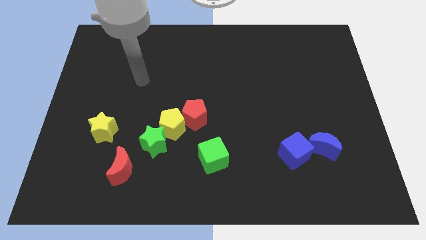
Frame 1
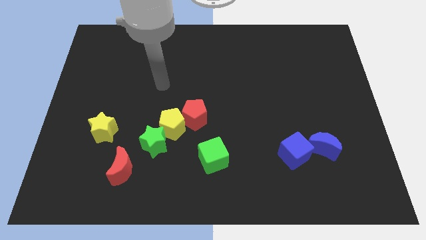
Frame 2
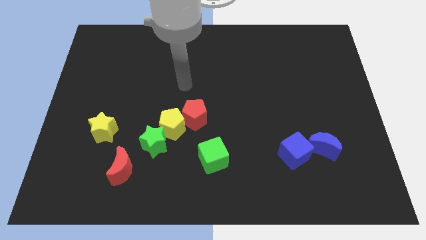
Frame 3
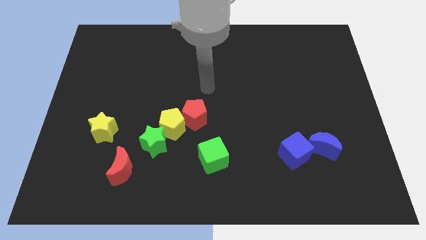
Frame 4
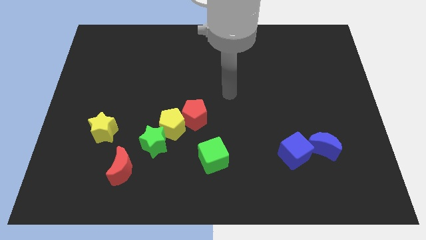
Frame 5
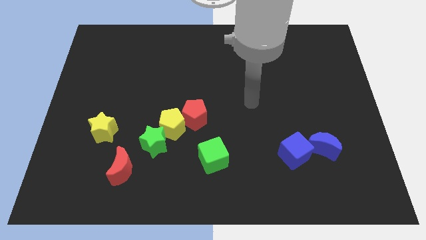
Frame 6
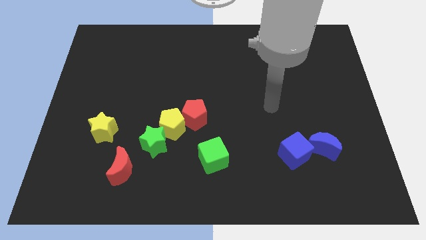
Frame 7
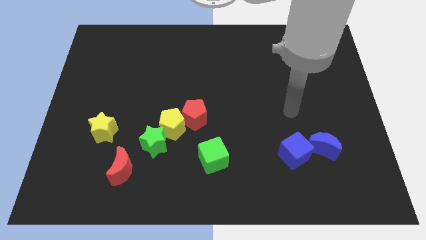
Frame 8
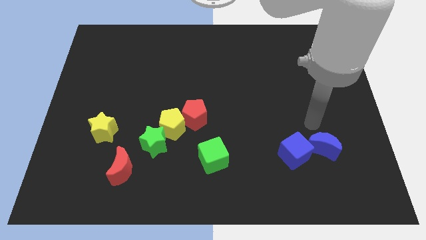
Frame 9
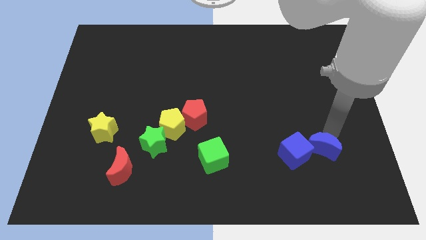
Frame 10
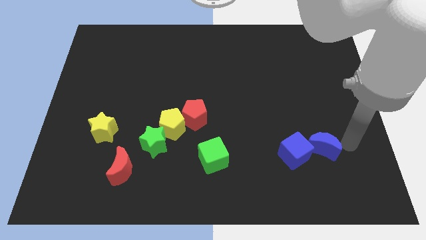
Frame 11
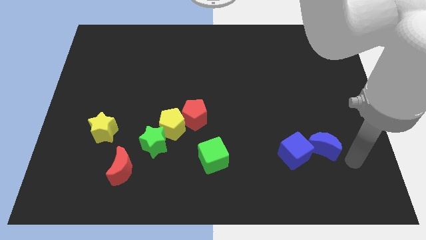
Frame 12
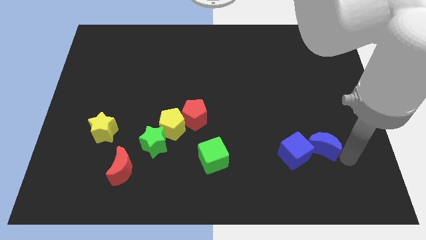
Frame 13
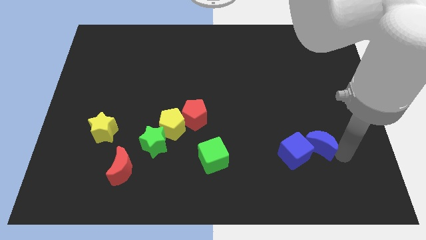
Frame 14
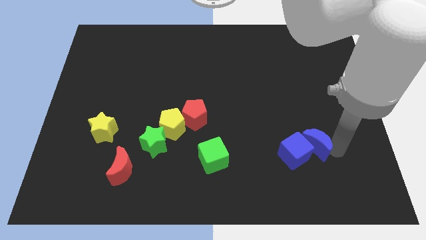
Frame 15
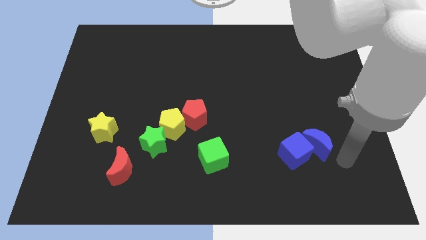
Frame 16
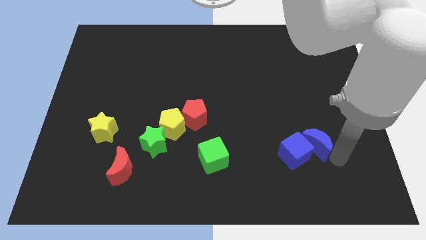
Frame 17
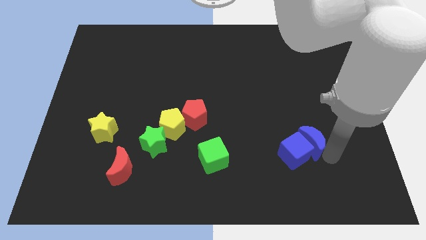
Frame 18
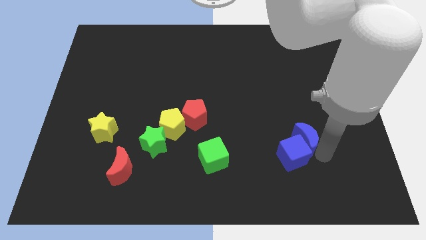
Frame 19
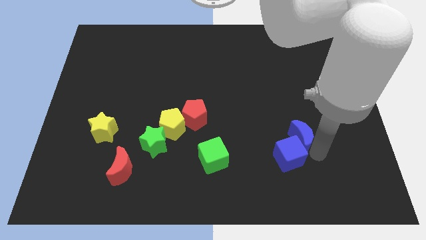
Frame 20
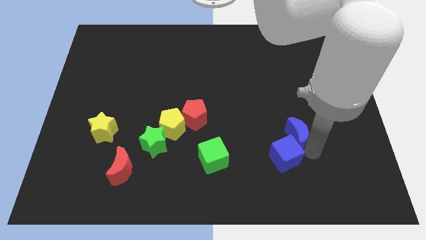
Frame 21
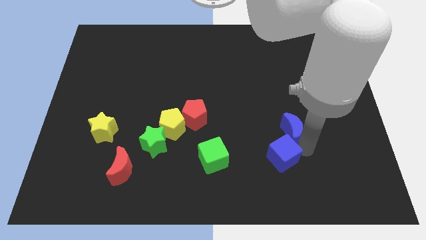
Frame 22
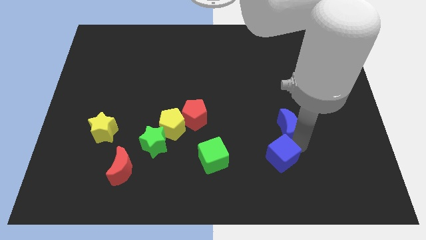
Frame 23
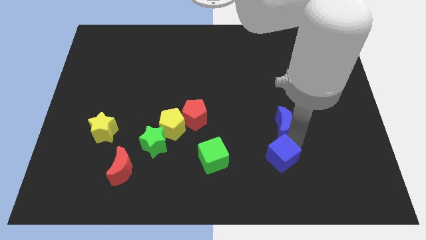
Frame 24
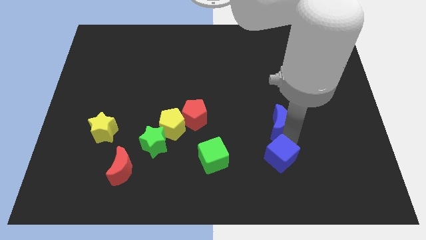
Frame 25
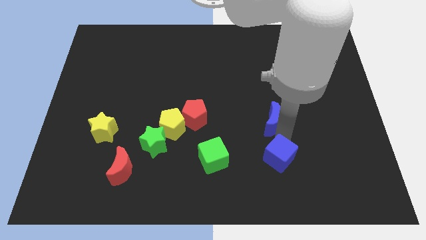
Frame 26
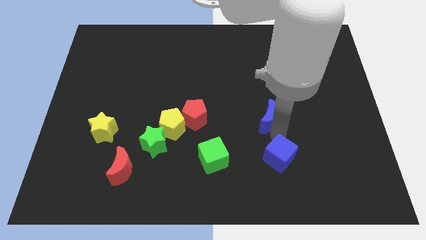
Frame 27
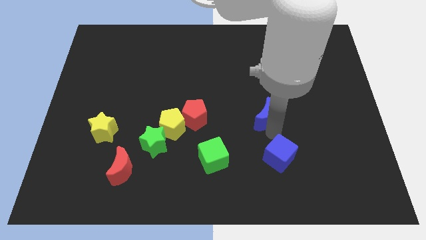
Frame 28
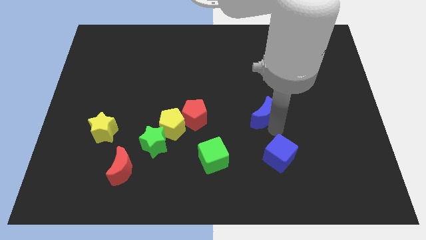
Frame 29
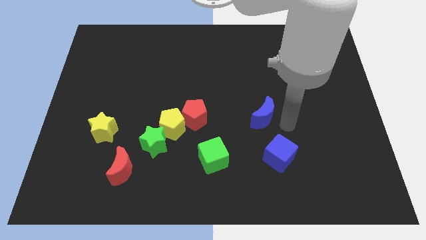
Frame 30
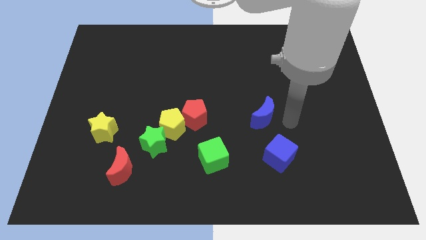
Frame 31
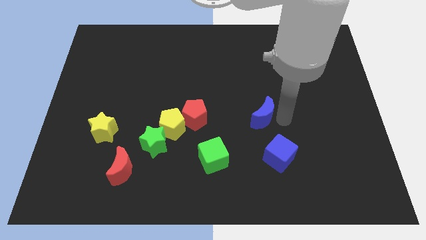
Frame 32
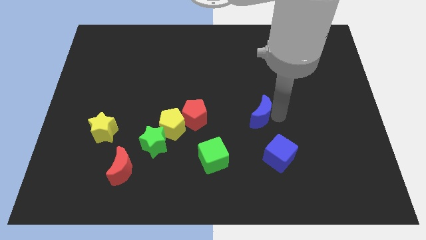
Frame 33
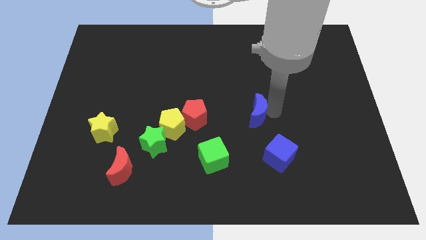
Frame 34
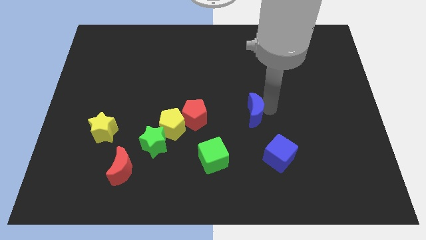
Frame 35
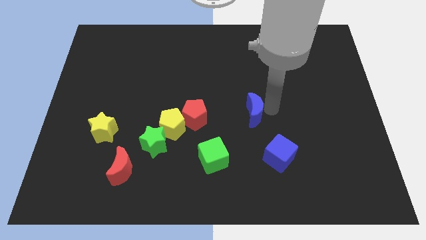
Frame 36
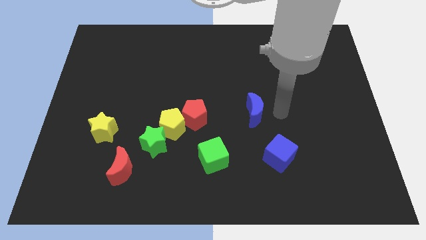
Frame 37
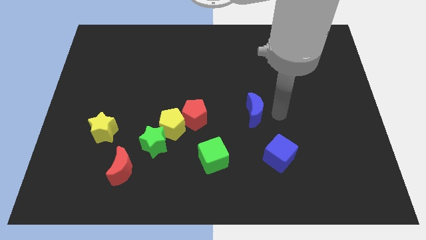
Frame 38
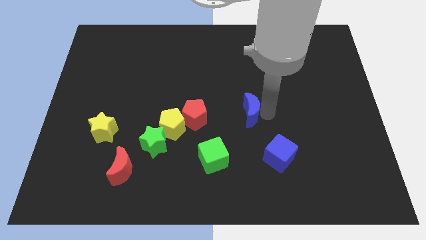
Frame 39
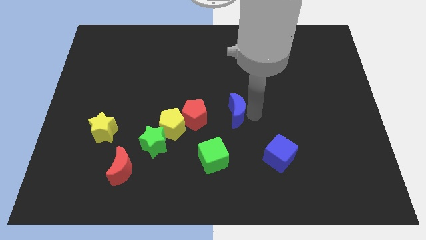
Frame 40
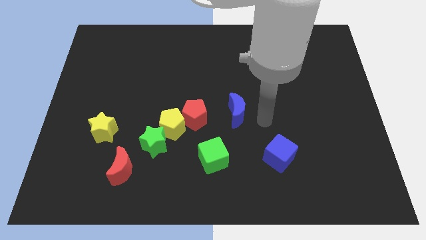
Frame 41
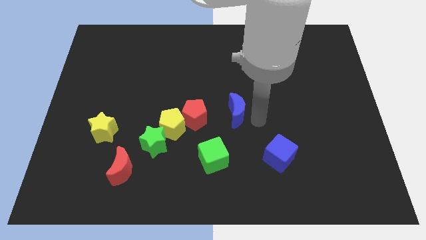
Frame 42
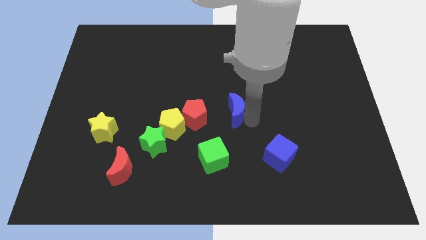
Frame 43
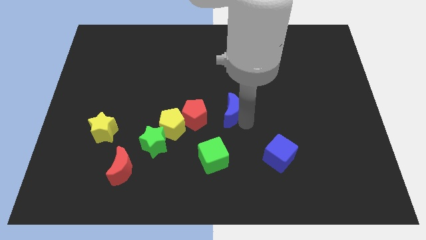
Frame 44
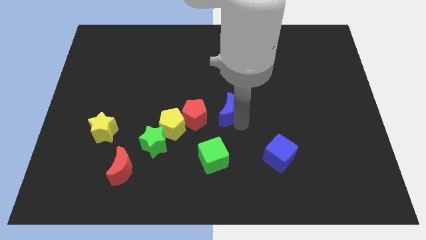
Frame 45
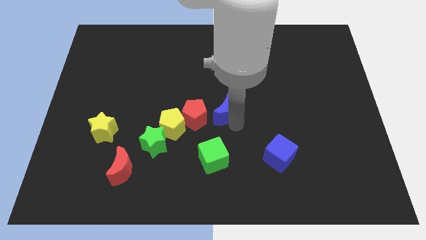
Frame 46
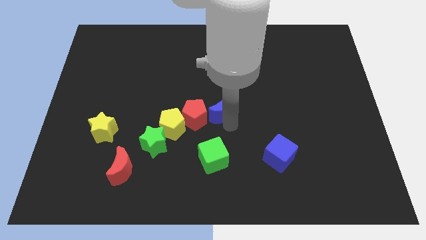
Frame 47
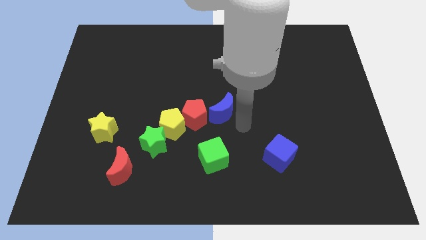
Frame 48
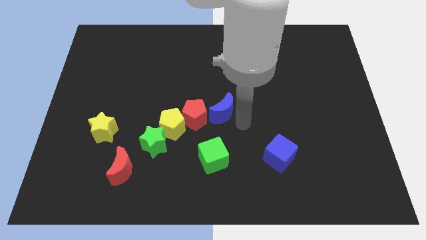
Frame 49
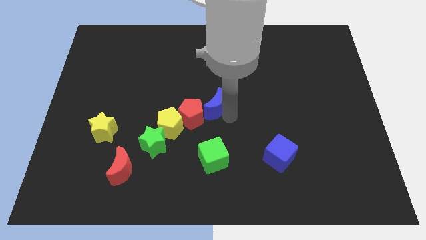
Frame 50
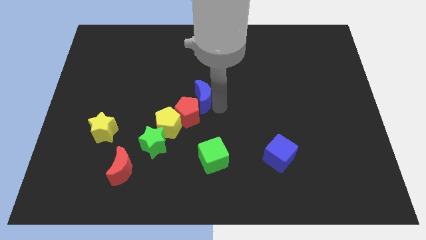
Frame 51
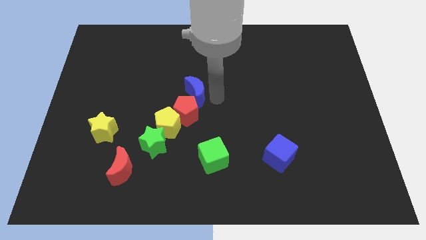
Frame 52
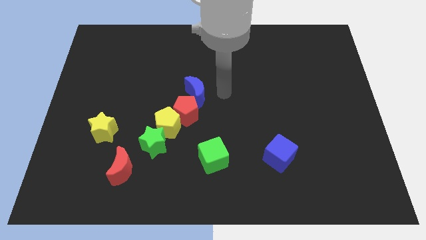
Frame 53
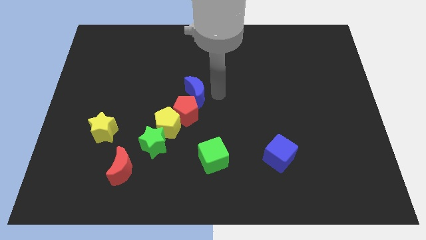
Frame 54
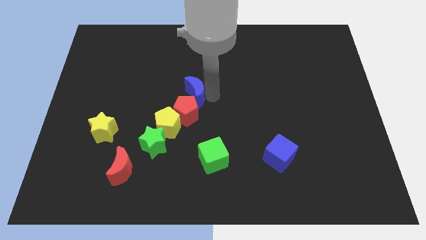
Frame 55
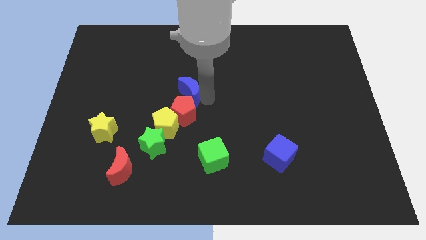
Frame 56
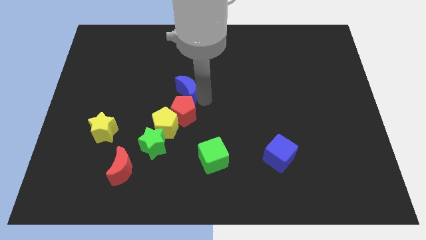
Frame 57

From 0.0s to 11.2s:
move the blue moon to the top left of the red pentagon

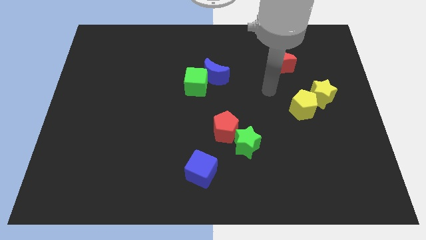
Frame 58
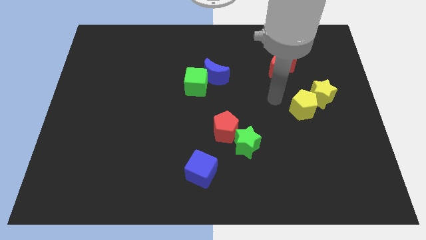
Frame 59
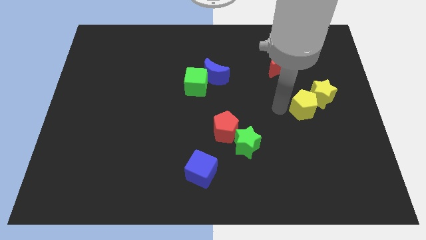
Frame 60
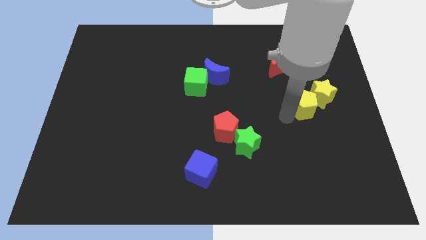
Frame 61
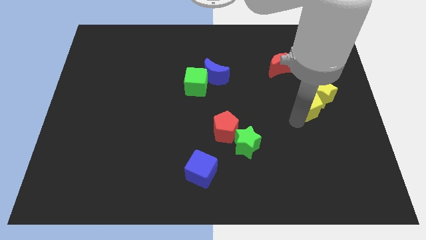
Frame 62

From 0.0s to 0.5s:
push the yellow star to the top of the yellow pentagon

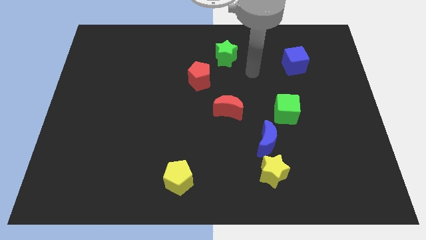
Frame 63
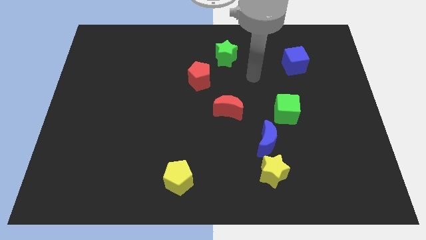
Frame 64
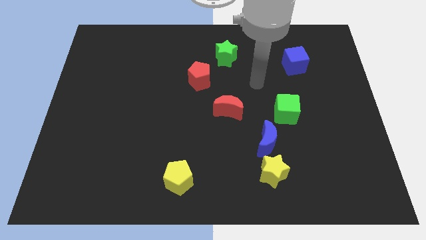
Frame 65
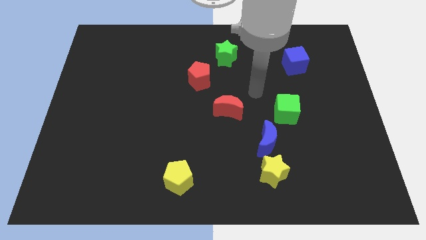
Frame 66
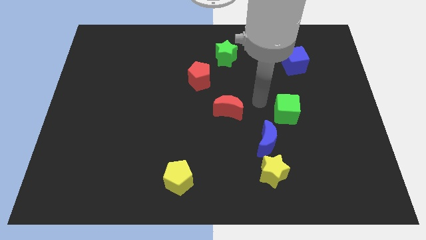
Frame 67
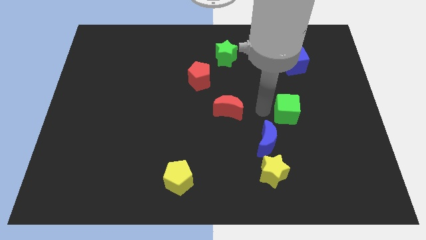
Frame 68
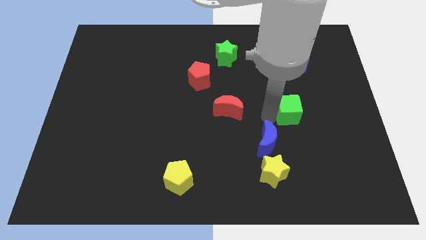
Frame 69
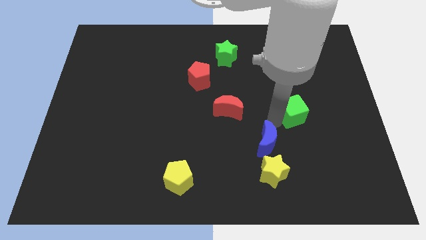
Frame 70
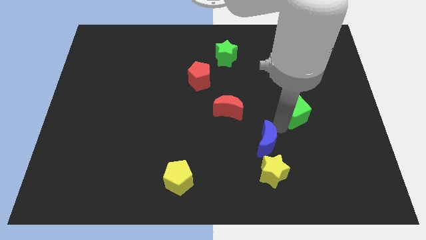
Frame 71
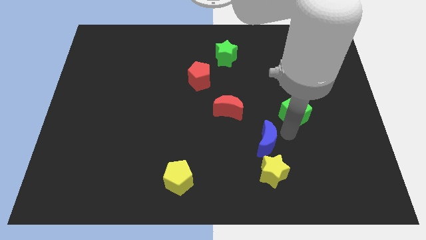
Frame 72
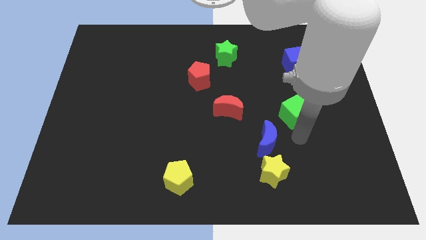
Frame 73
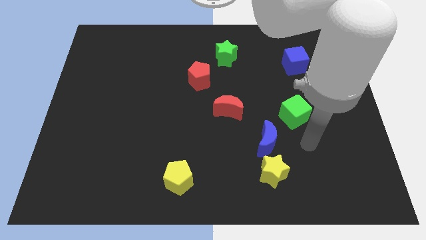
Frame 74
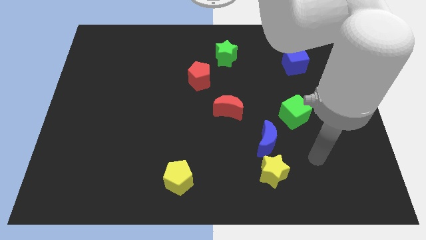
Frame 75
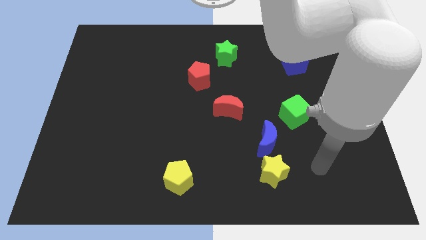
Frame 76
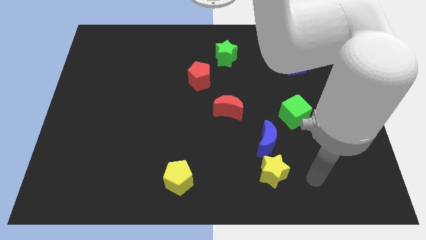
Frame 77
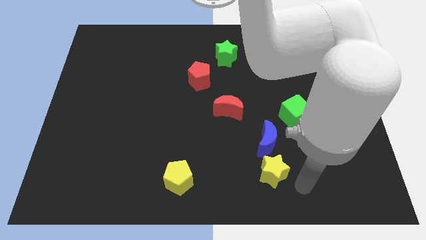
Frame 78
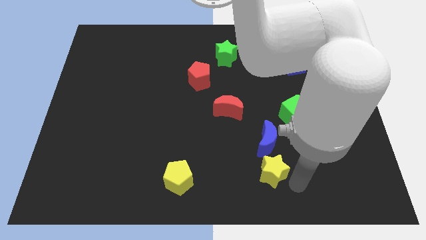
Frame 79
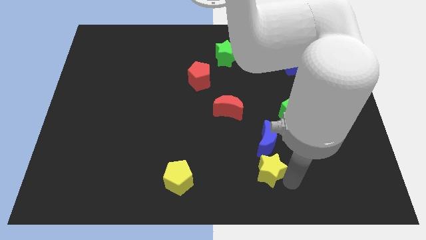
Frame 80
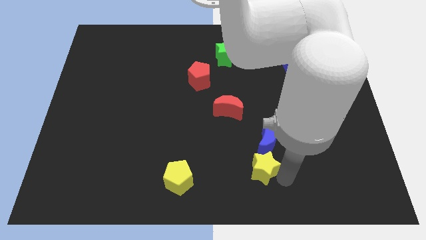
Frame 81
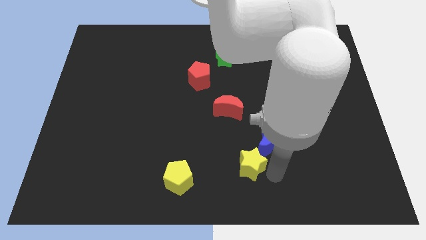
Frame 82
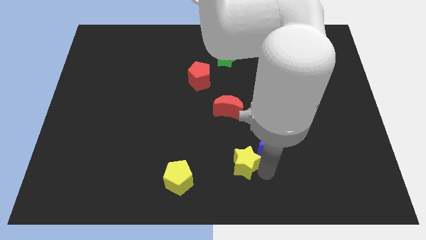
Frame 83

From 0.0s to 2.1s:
slide the yellow star below the red moon
